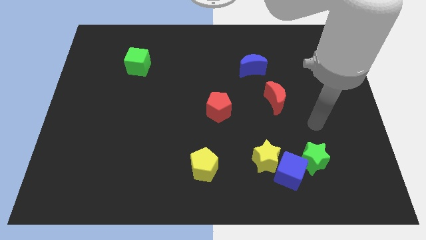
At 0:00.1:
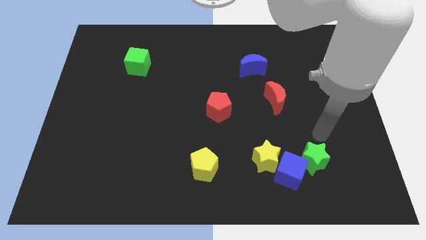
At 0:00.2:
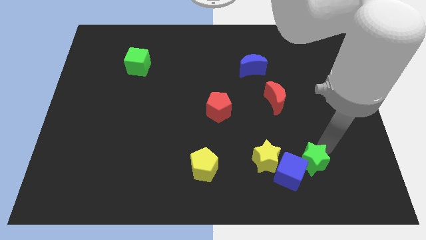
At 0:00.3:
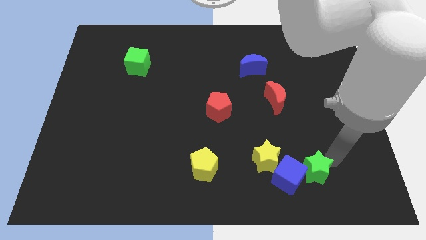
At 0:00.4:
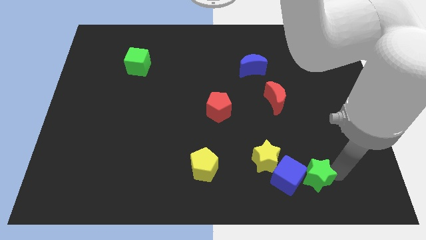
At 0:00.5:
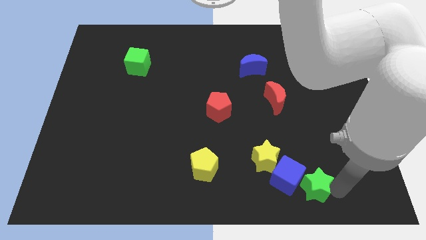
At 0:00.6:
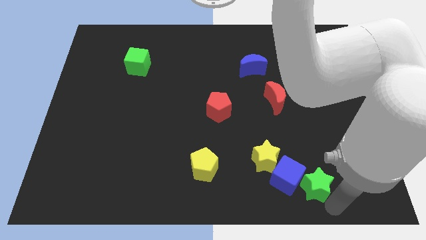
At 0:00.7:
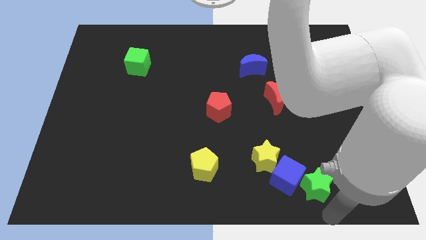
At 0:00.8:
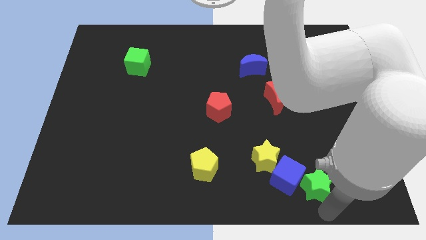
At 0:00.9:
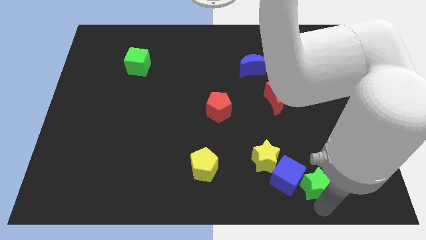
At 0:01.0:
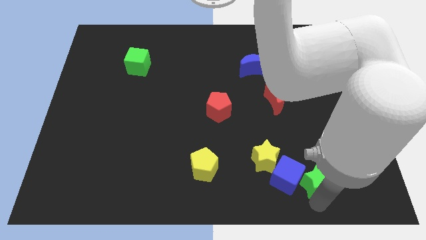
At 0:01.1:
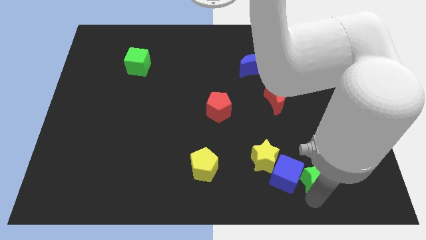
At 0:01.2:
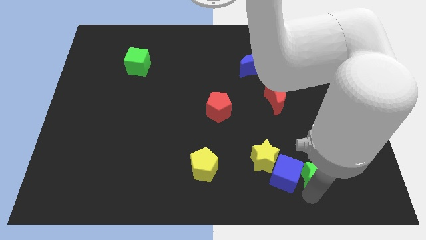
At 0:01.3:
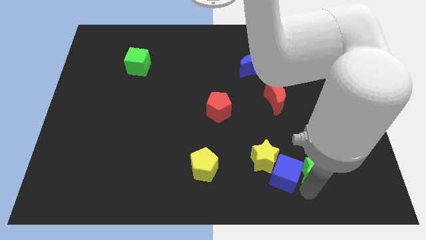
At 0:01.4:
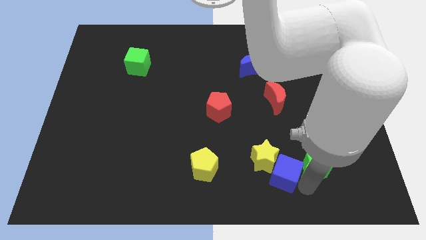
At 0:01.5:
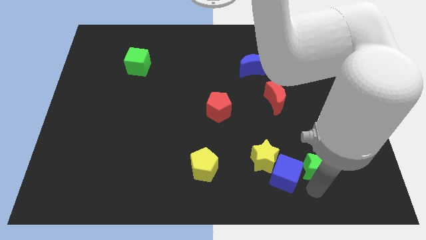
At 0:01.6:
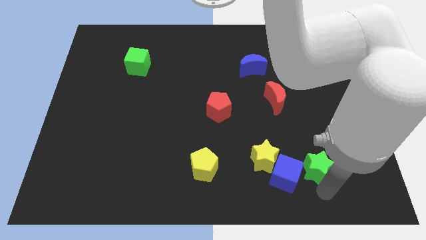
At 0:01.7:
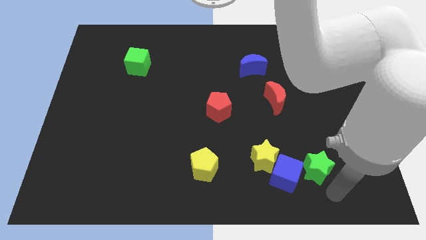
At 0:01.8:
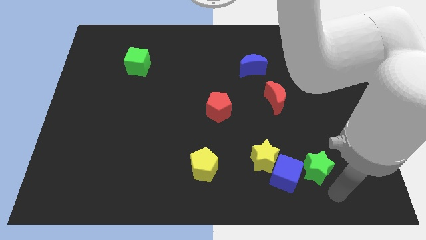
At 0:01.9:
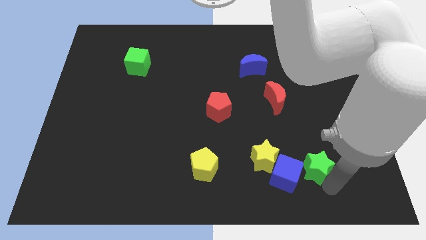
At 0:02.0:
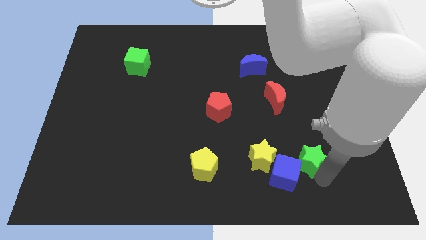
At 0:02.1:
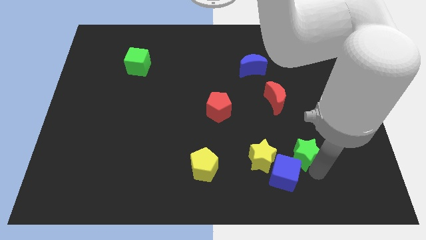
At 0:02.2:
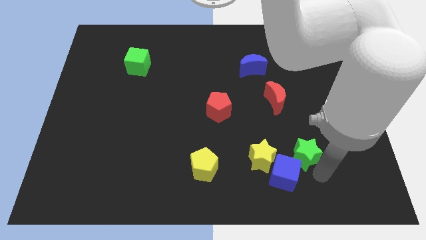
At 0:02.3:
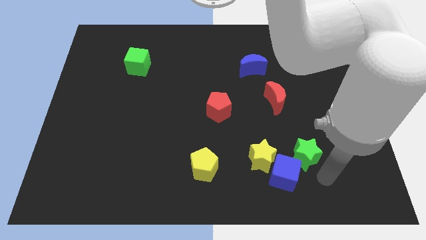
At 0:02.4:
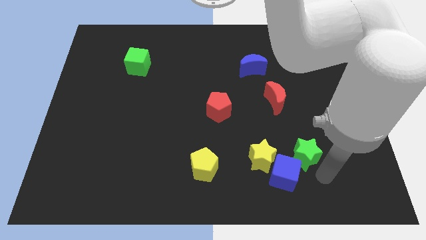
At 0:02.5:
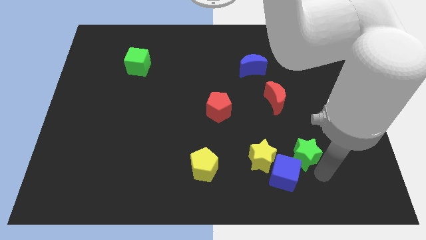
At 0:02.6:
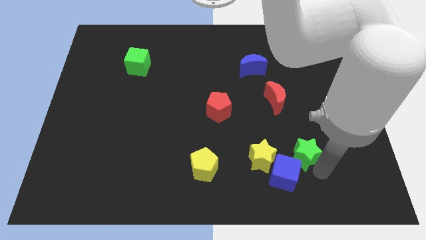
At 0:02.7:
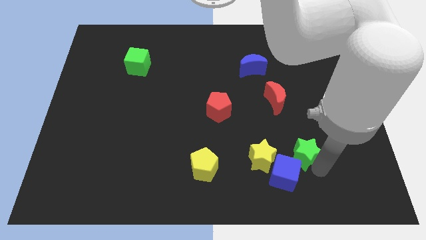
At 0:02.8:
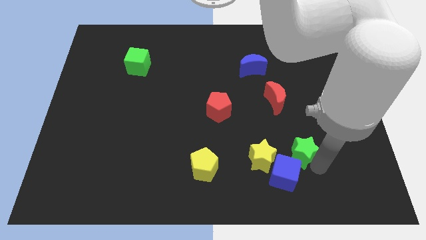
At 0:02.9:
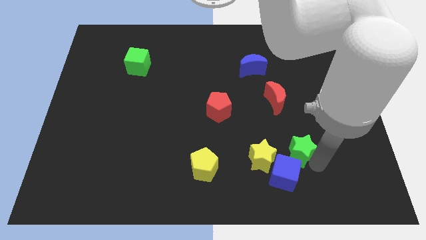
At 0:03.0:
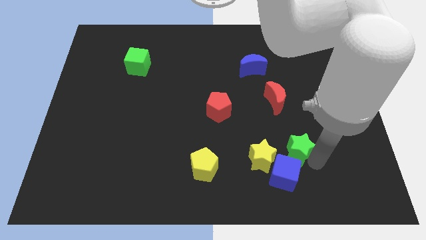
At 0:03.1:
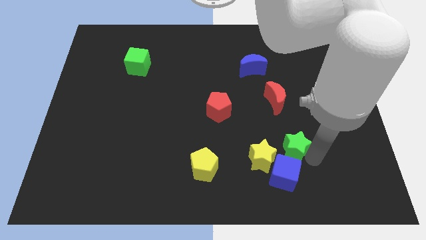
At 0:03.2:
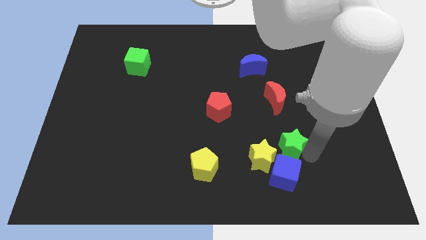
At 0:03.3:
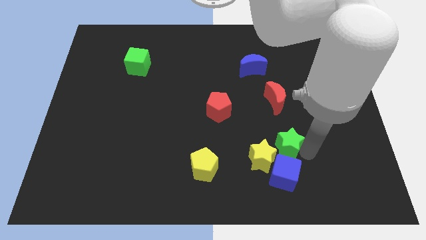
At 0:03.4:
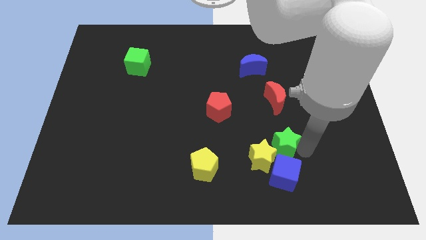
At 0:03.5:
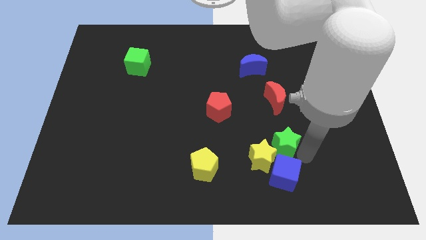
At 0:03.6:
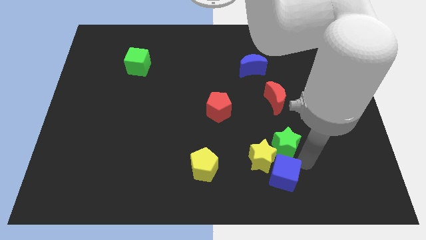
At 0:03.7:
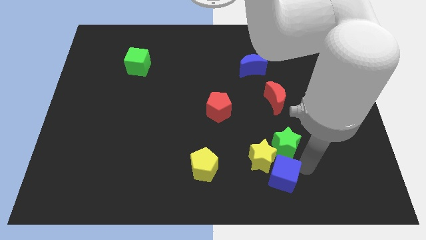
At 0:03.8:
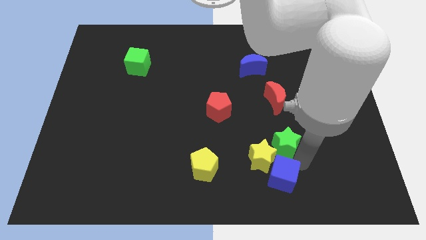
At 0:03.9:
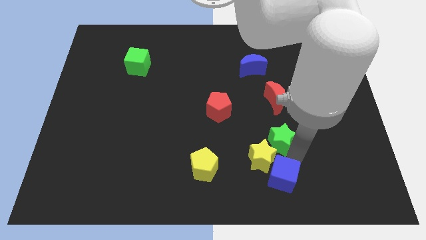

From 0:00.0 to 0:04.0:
slightly move the green star diagonally upwards and to the left

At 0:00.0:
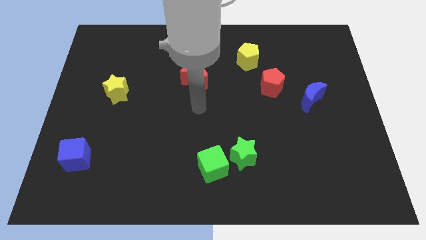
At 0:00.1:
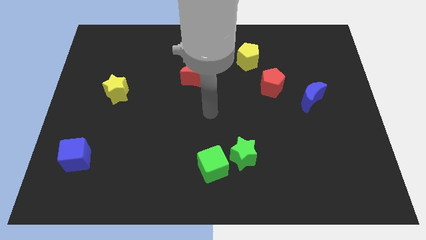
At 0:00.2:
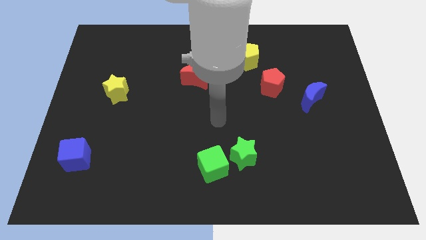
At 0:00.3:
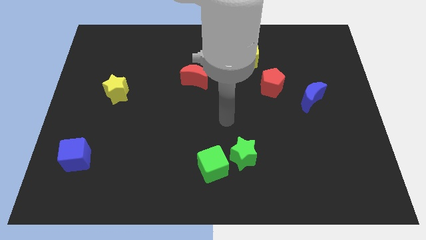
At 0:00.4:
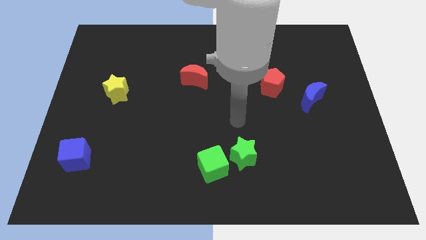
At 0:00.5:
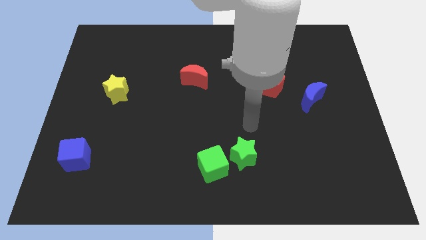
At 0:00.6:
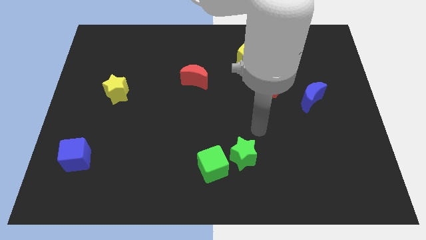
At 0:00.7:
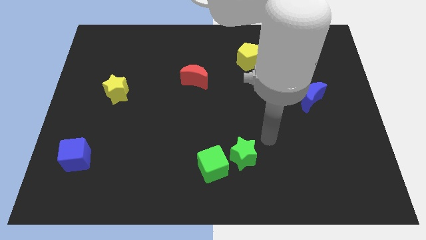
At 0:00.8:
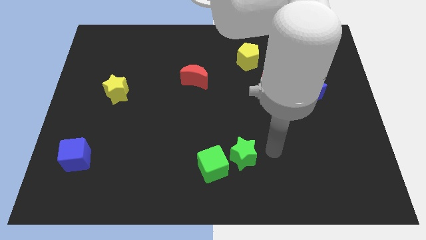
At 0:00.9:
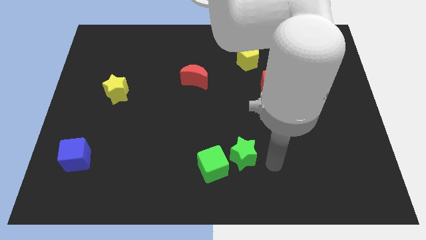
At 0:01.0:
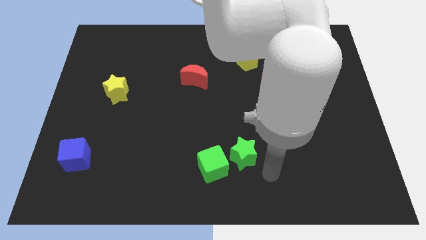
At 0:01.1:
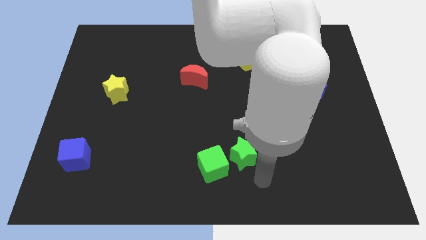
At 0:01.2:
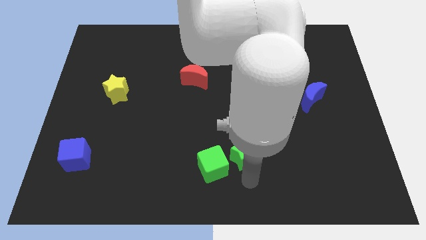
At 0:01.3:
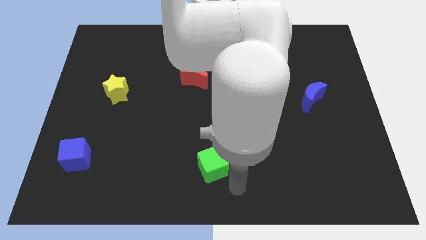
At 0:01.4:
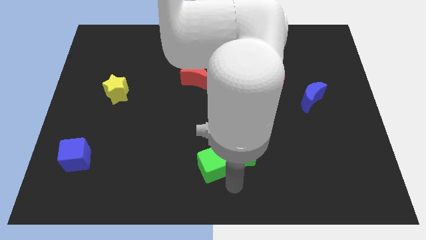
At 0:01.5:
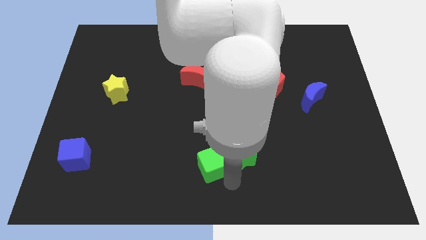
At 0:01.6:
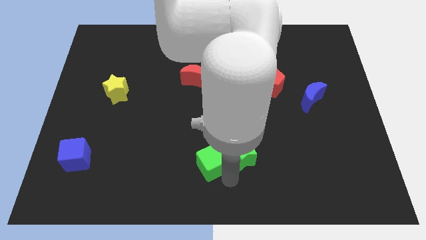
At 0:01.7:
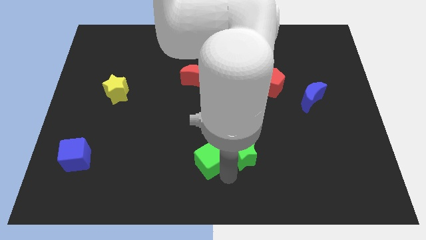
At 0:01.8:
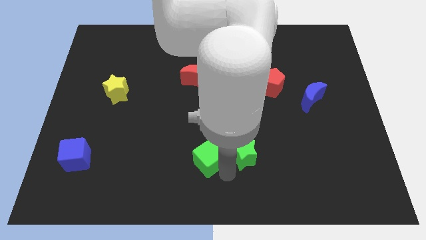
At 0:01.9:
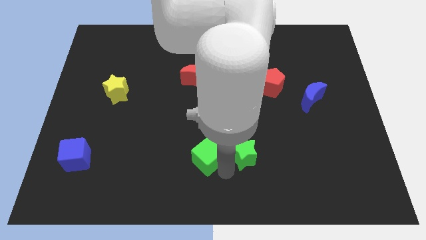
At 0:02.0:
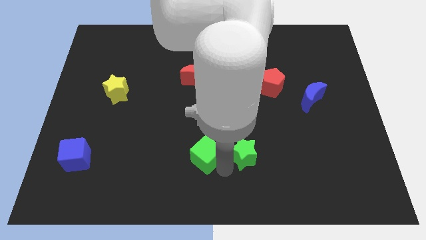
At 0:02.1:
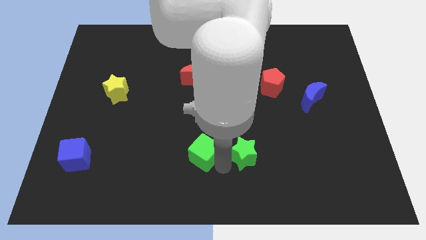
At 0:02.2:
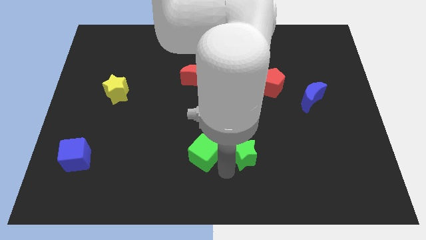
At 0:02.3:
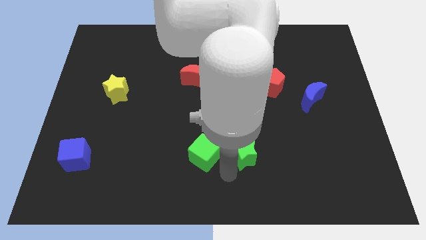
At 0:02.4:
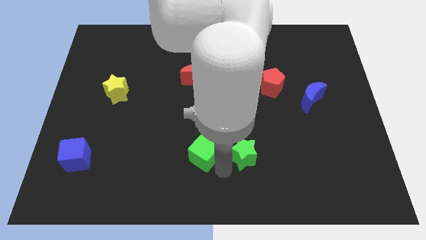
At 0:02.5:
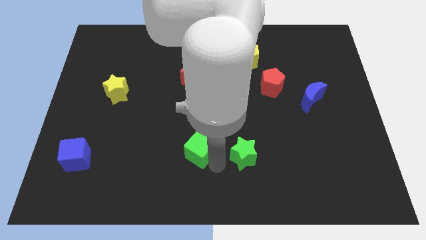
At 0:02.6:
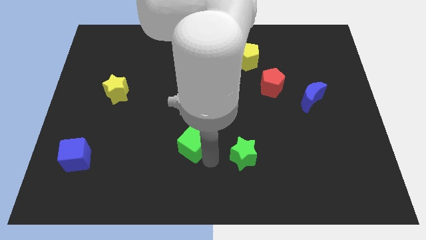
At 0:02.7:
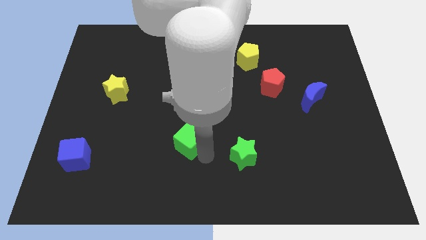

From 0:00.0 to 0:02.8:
slide the green cube diagonally upwards and to the left slightly

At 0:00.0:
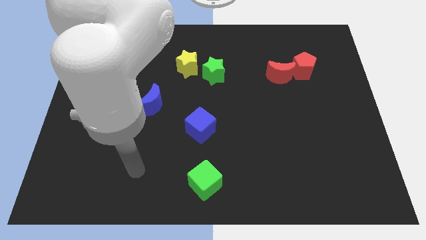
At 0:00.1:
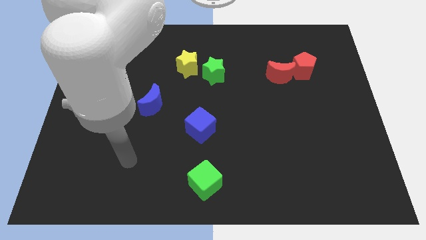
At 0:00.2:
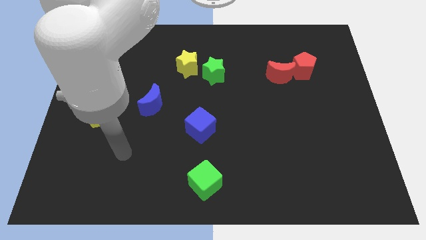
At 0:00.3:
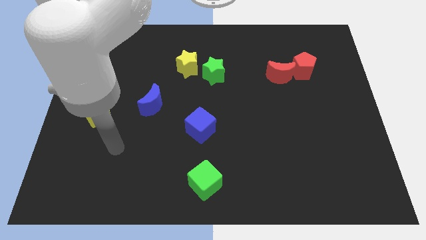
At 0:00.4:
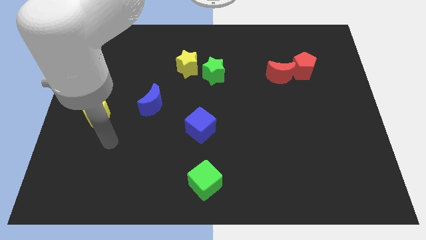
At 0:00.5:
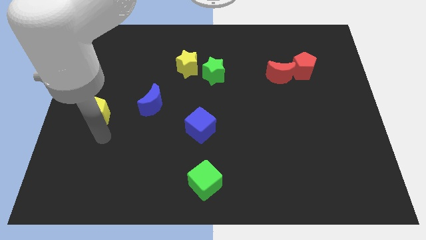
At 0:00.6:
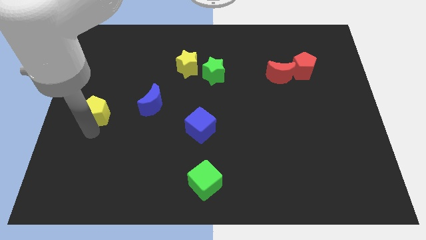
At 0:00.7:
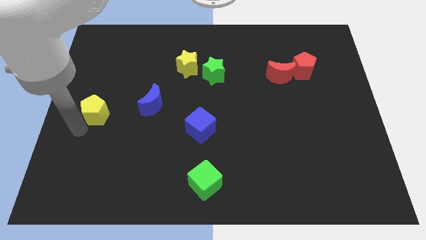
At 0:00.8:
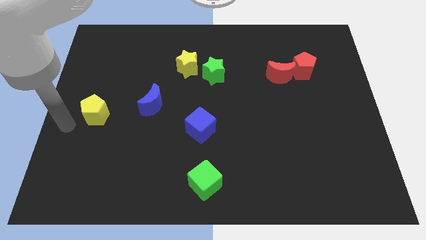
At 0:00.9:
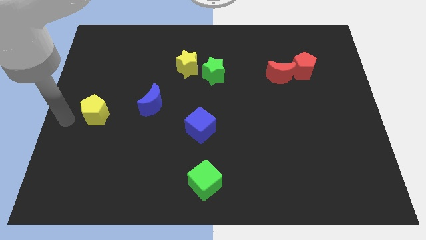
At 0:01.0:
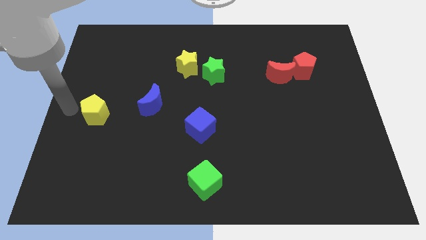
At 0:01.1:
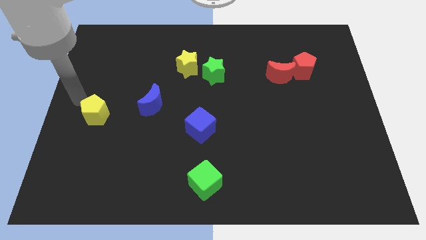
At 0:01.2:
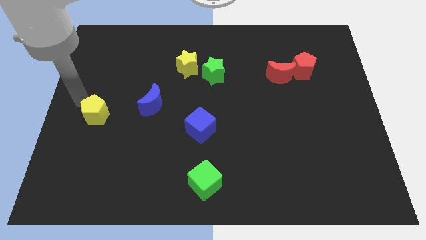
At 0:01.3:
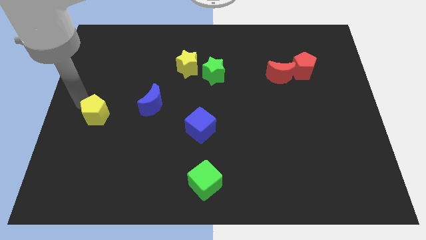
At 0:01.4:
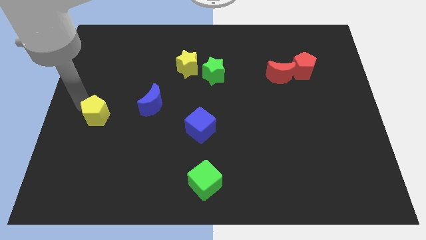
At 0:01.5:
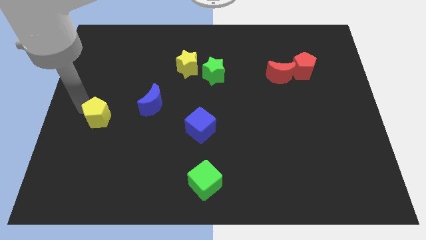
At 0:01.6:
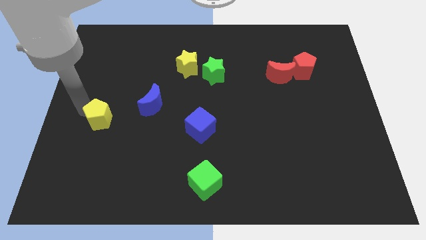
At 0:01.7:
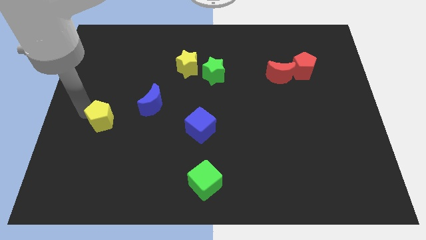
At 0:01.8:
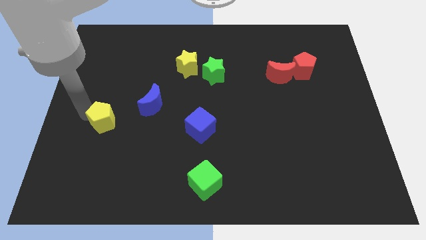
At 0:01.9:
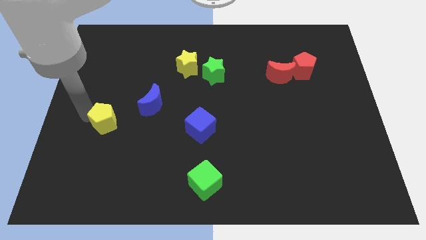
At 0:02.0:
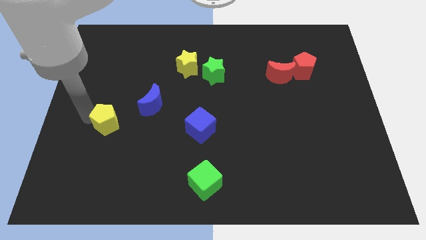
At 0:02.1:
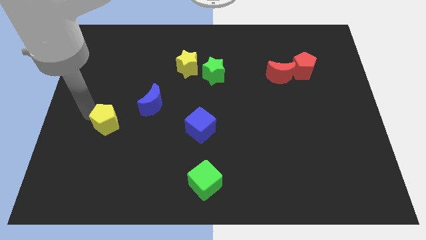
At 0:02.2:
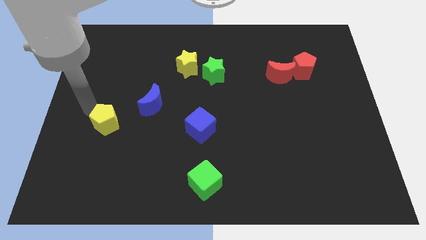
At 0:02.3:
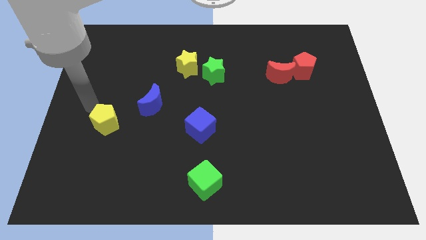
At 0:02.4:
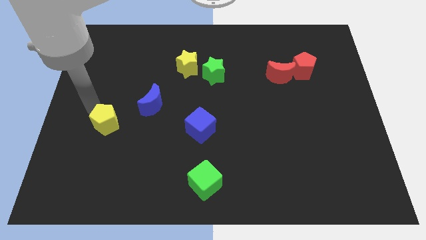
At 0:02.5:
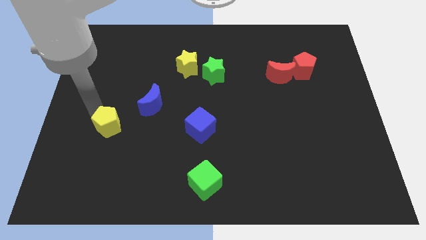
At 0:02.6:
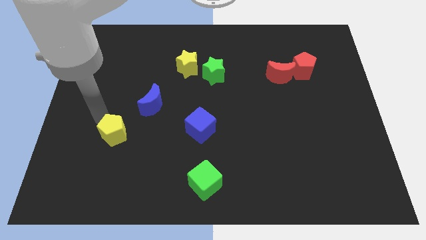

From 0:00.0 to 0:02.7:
move the yellow pentagon slightly down and then to the right
